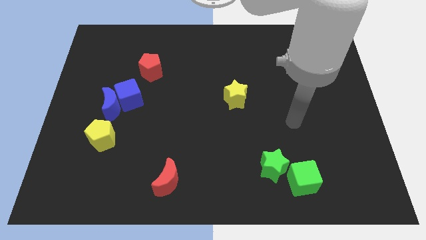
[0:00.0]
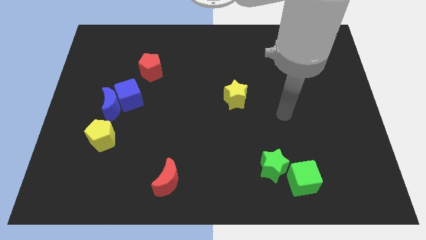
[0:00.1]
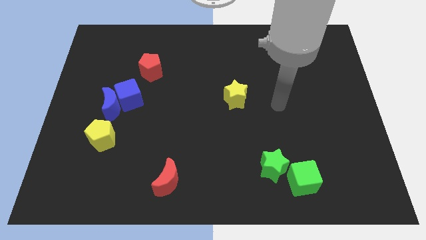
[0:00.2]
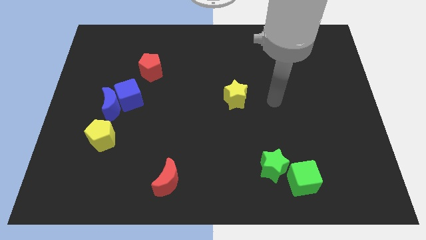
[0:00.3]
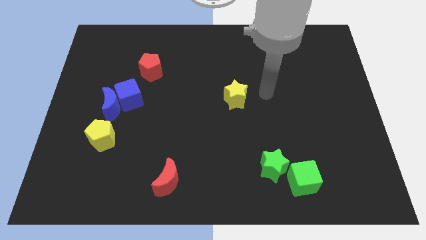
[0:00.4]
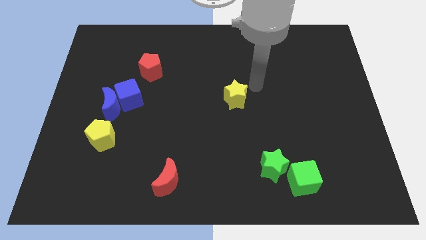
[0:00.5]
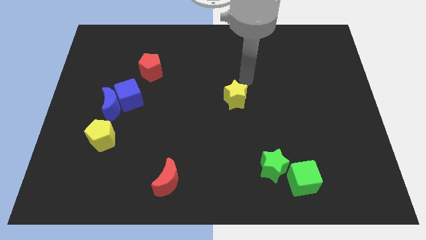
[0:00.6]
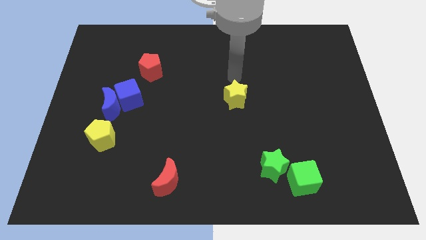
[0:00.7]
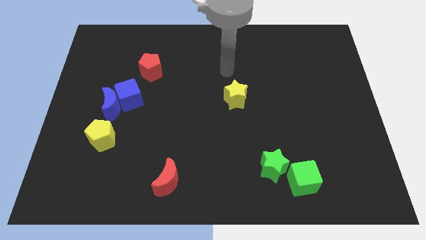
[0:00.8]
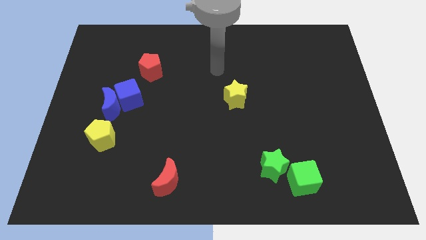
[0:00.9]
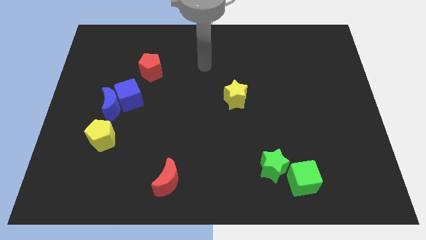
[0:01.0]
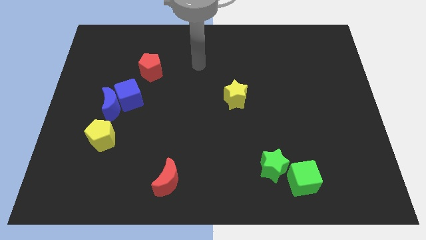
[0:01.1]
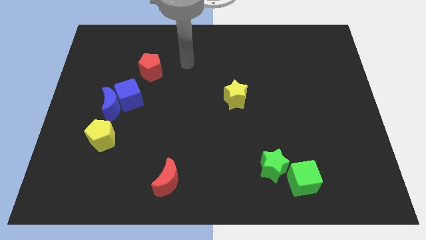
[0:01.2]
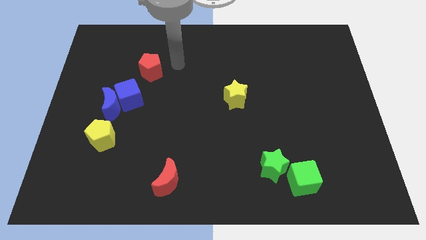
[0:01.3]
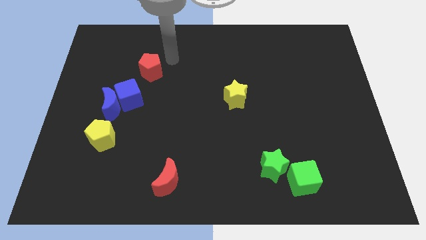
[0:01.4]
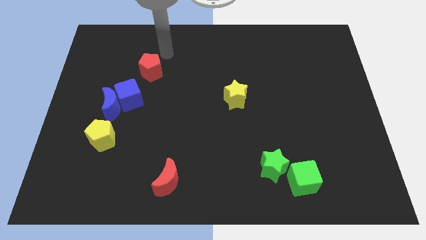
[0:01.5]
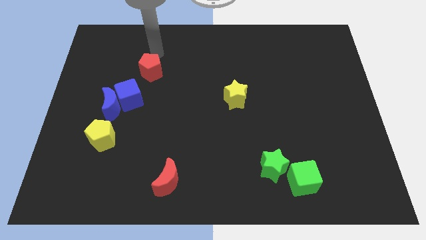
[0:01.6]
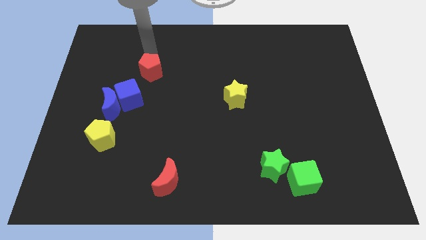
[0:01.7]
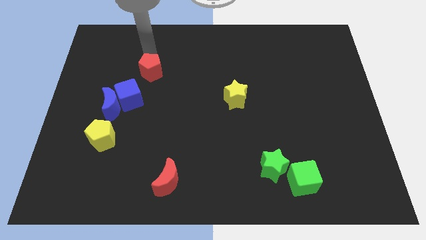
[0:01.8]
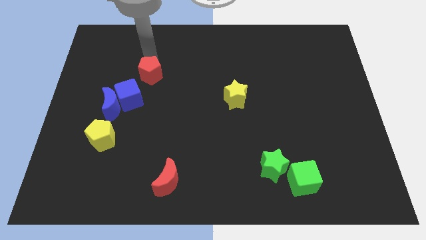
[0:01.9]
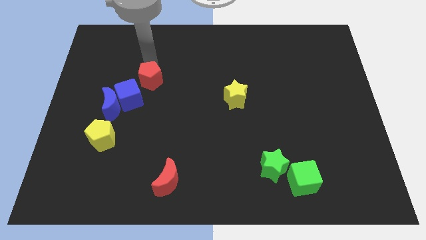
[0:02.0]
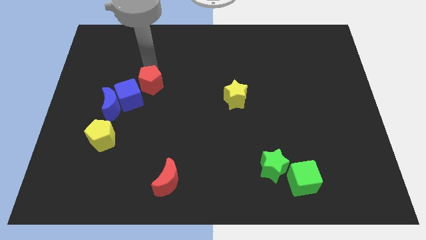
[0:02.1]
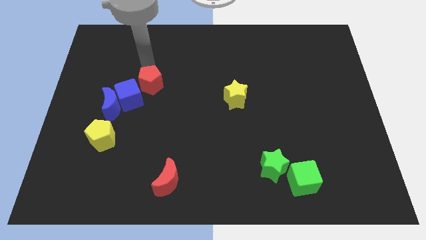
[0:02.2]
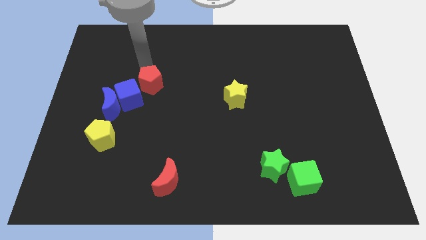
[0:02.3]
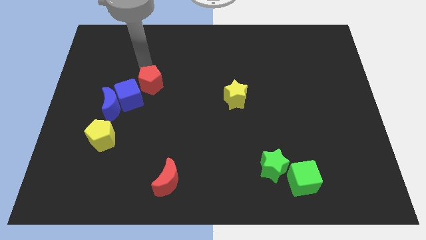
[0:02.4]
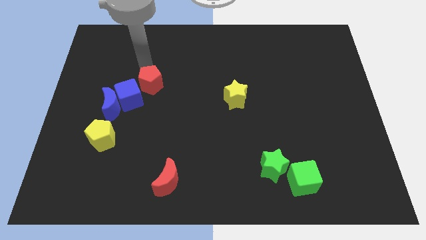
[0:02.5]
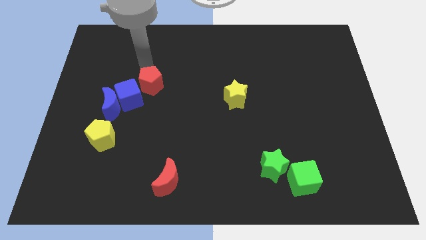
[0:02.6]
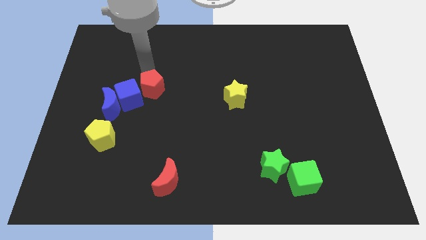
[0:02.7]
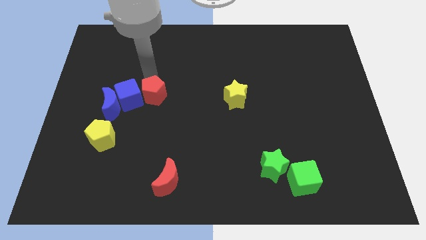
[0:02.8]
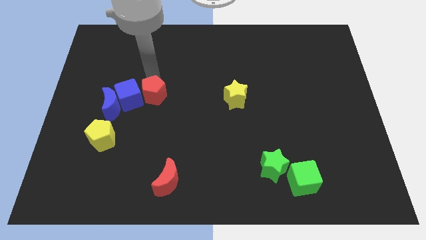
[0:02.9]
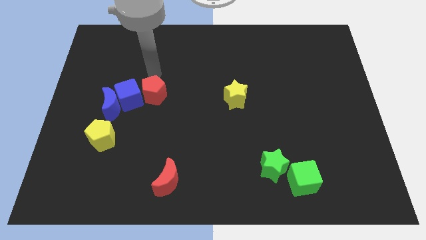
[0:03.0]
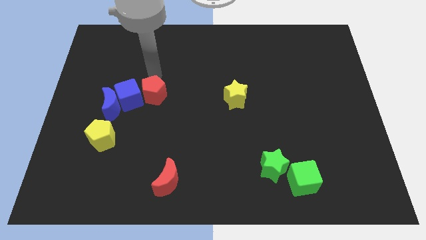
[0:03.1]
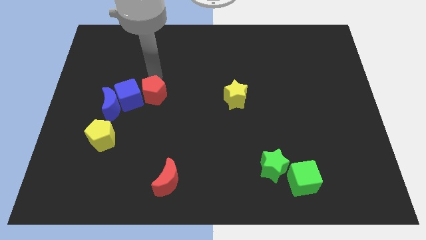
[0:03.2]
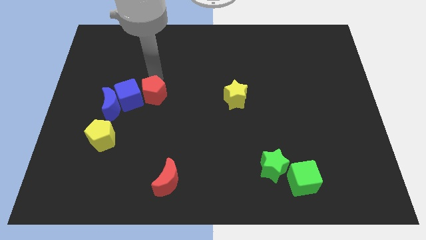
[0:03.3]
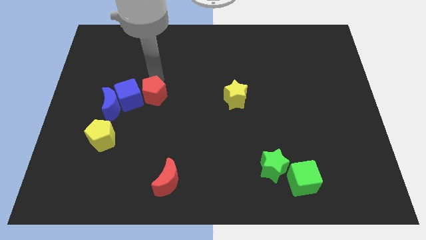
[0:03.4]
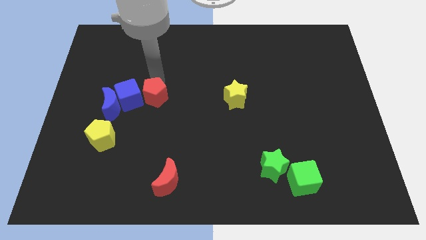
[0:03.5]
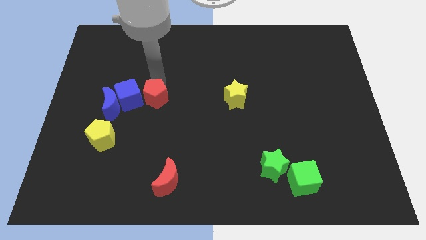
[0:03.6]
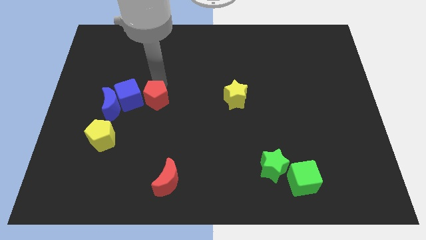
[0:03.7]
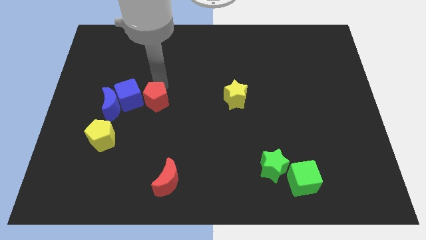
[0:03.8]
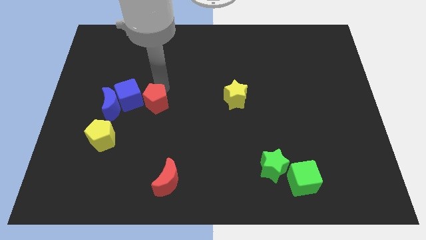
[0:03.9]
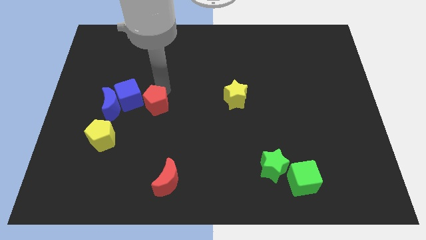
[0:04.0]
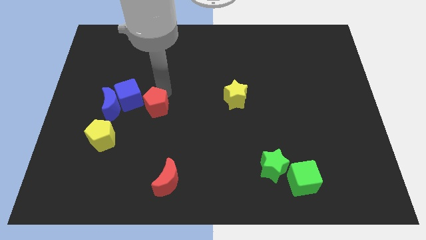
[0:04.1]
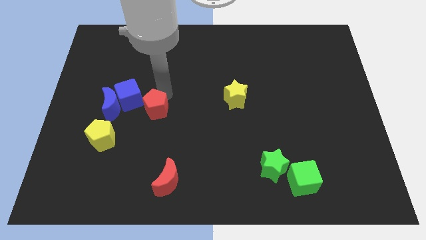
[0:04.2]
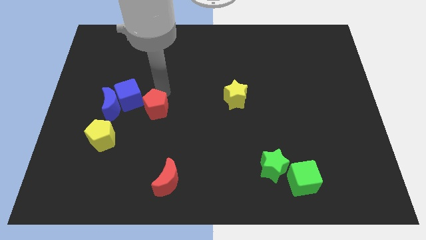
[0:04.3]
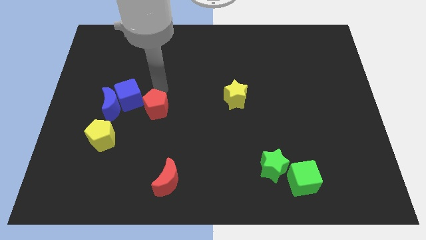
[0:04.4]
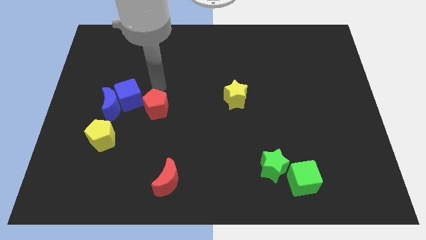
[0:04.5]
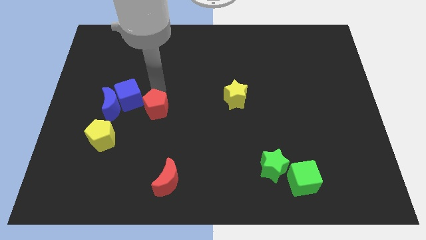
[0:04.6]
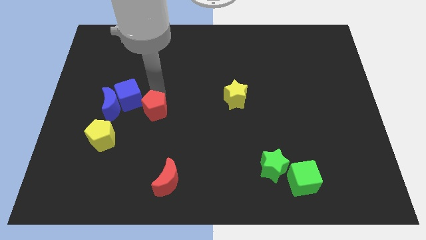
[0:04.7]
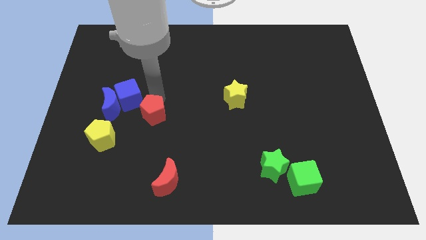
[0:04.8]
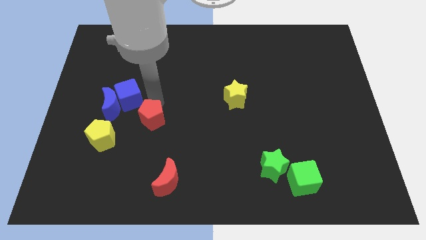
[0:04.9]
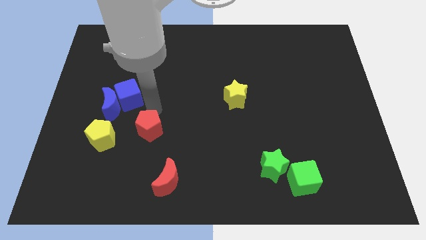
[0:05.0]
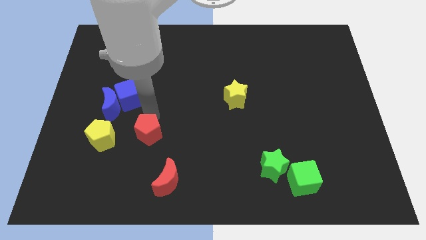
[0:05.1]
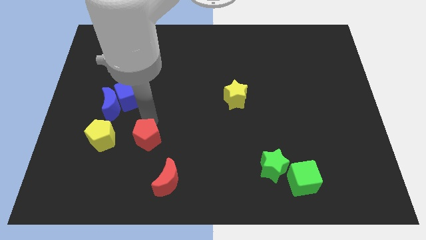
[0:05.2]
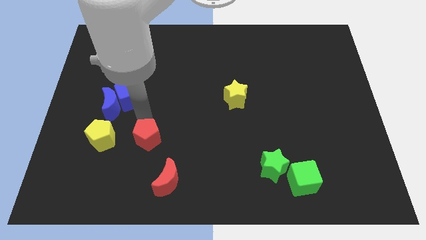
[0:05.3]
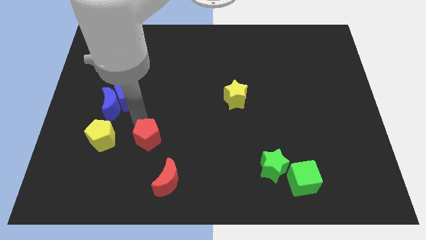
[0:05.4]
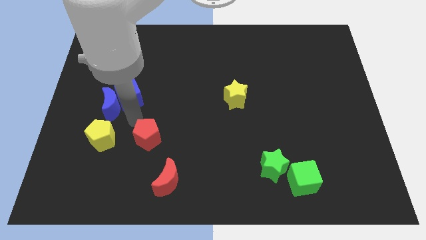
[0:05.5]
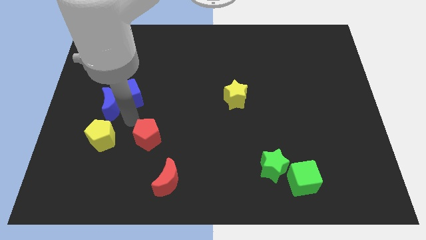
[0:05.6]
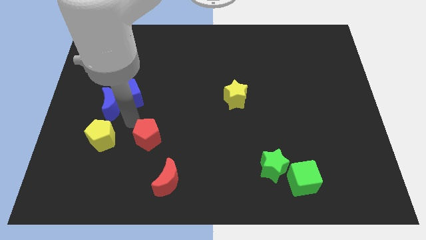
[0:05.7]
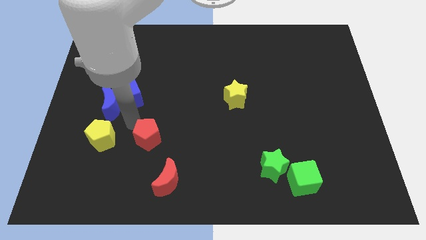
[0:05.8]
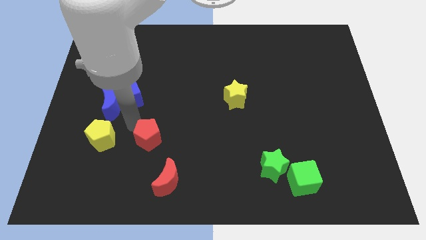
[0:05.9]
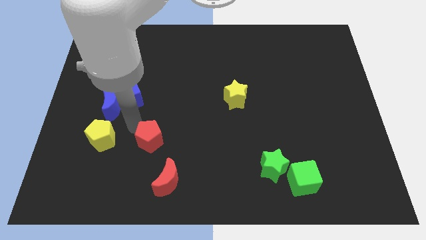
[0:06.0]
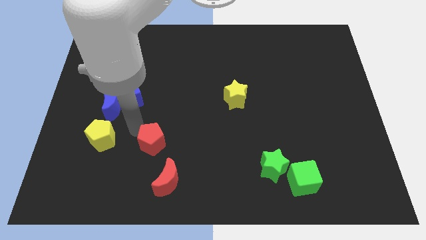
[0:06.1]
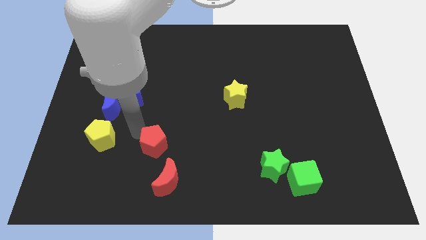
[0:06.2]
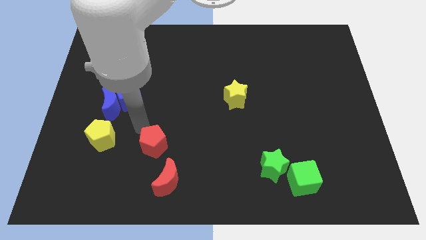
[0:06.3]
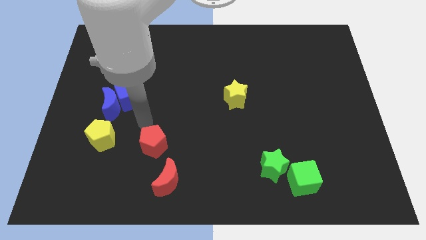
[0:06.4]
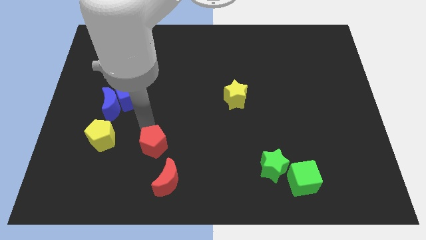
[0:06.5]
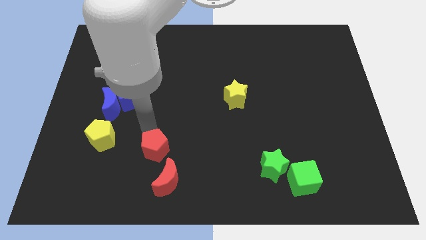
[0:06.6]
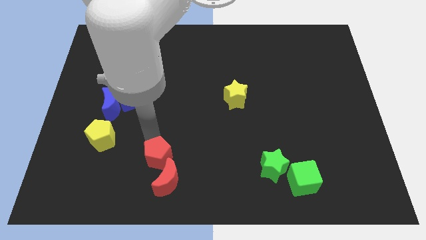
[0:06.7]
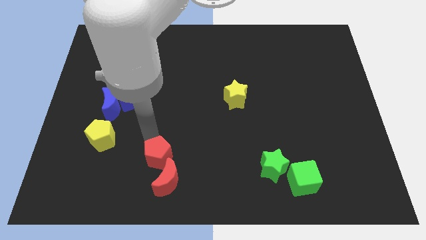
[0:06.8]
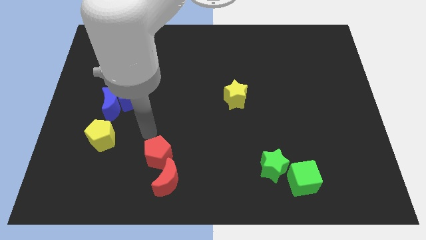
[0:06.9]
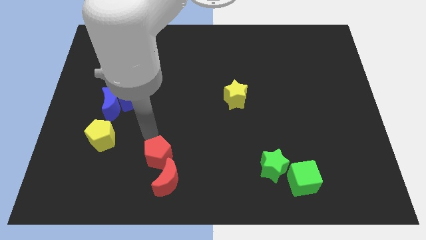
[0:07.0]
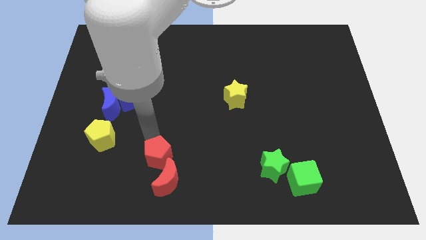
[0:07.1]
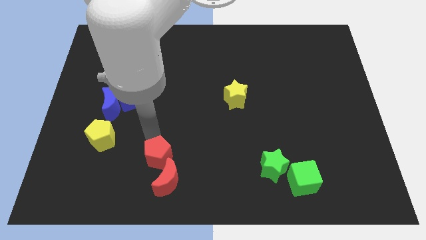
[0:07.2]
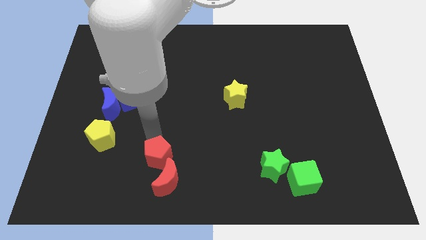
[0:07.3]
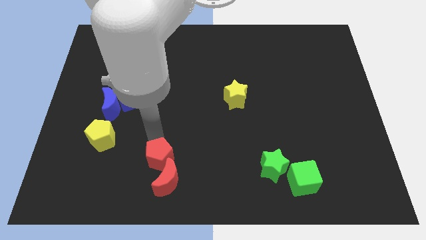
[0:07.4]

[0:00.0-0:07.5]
move the red pentagon to the red moon
